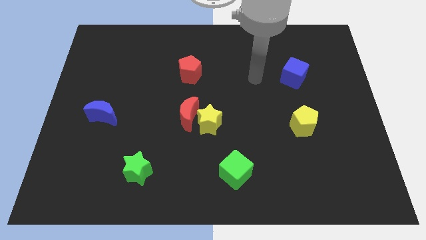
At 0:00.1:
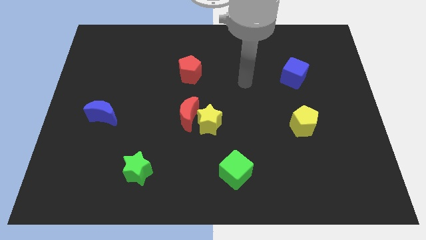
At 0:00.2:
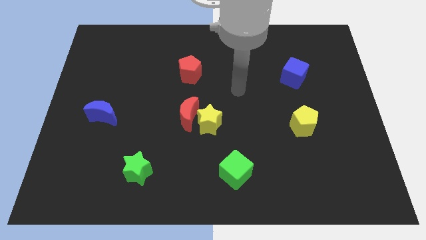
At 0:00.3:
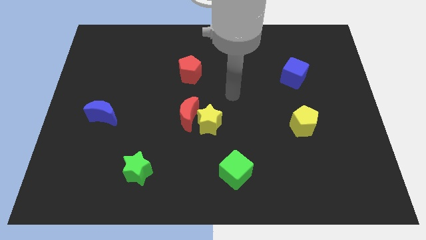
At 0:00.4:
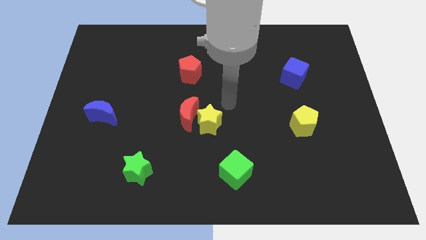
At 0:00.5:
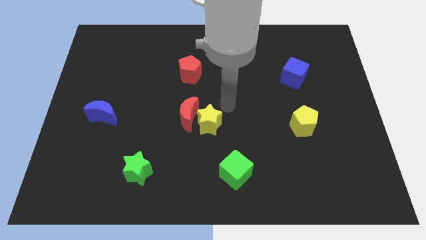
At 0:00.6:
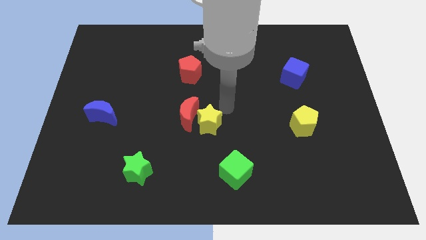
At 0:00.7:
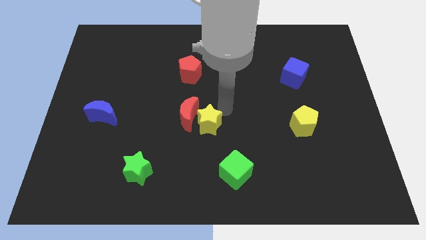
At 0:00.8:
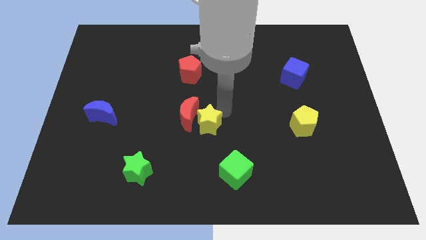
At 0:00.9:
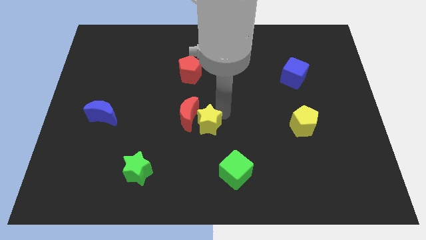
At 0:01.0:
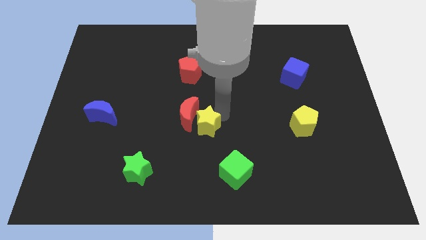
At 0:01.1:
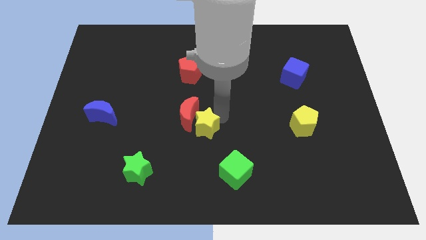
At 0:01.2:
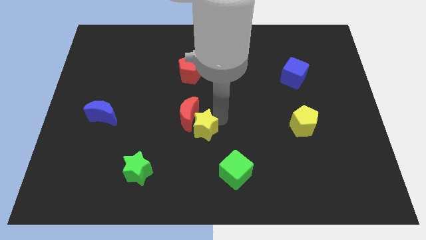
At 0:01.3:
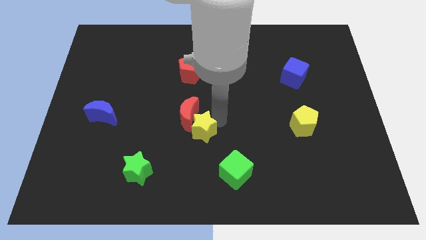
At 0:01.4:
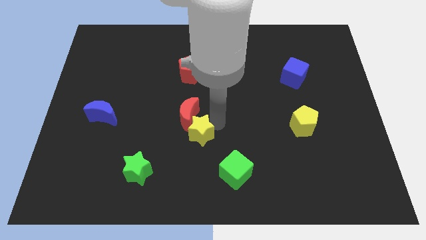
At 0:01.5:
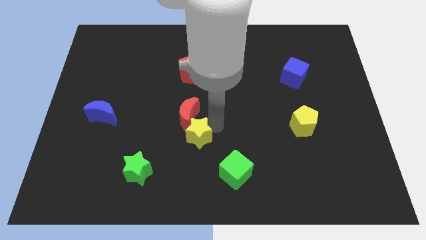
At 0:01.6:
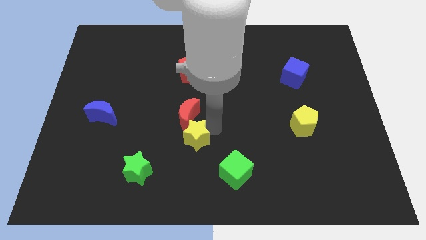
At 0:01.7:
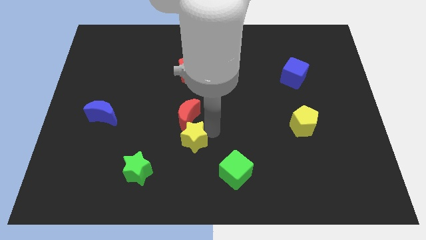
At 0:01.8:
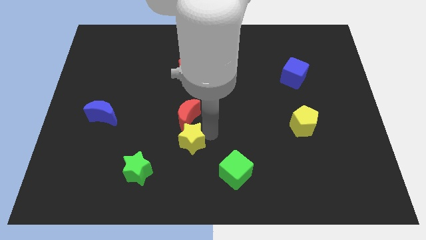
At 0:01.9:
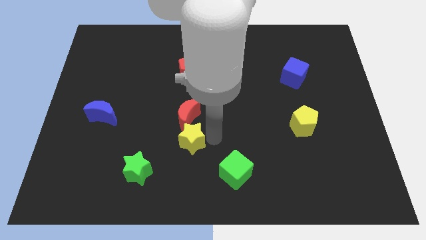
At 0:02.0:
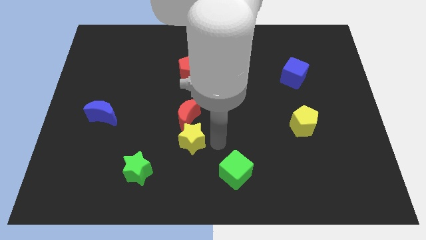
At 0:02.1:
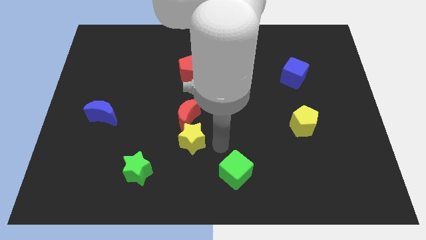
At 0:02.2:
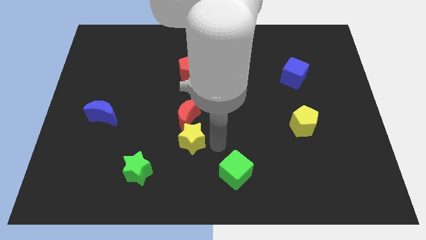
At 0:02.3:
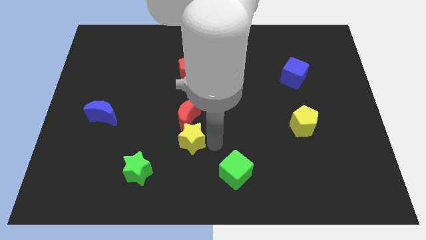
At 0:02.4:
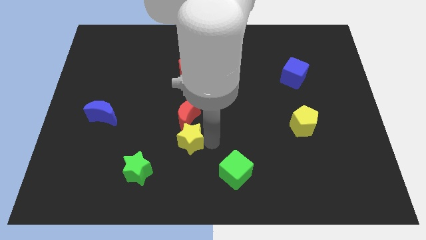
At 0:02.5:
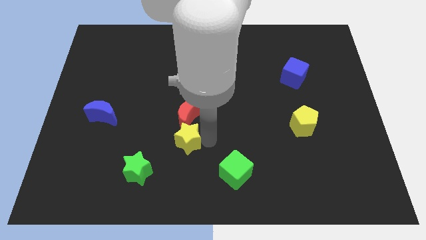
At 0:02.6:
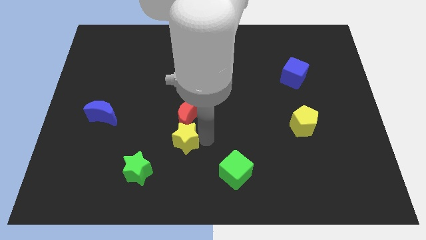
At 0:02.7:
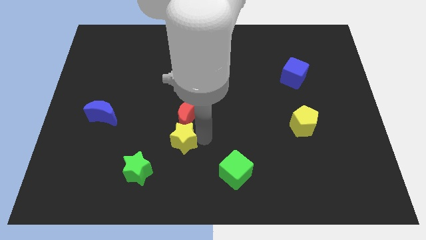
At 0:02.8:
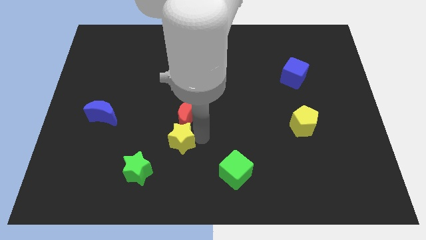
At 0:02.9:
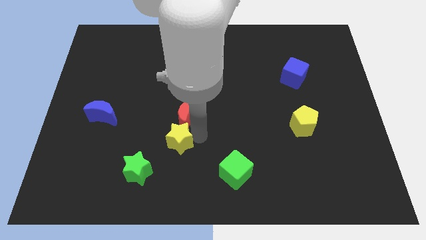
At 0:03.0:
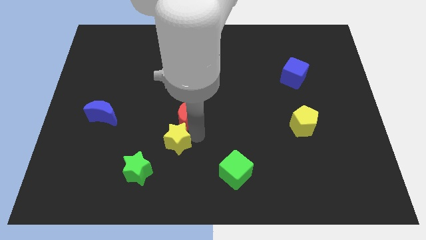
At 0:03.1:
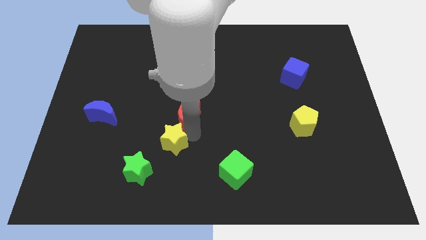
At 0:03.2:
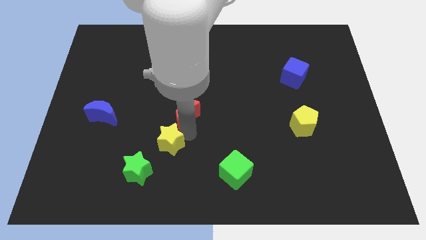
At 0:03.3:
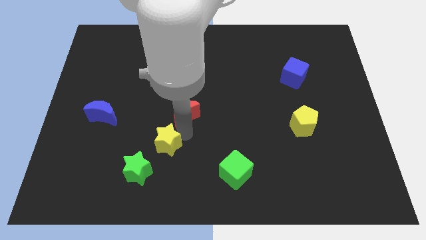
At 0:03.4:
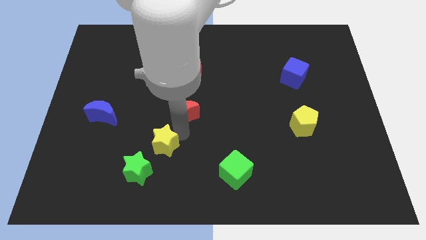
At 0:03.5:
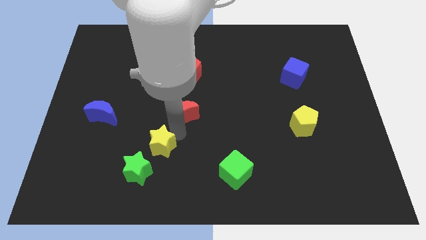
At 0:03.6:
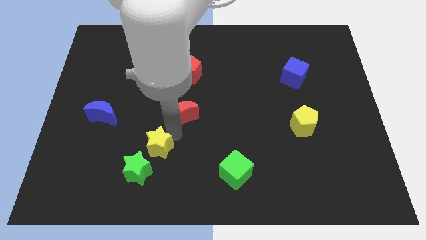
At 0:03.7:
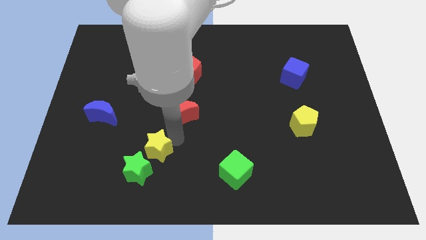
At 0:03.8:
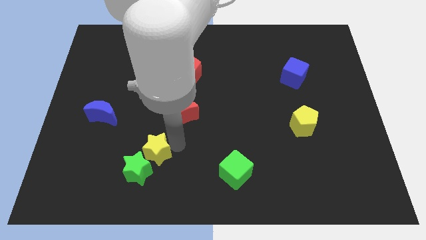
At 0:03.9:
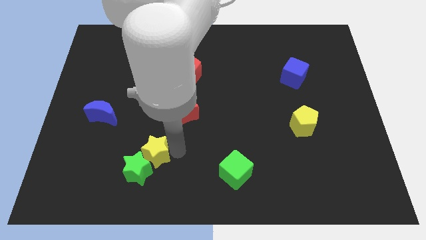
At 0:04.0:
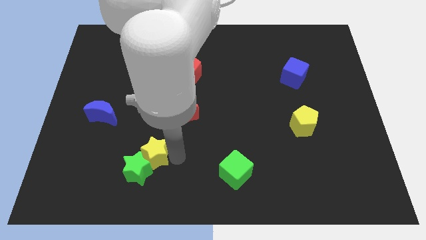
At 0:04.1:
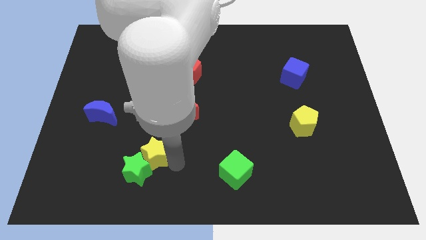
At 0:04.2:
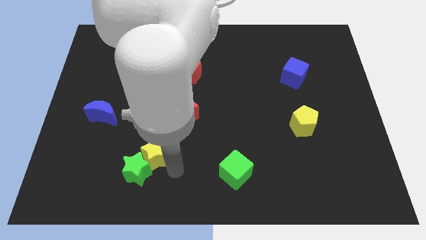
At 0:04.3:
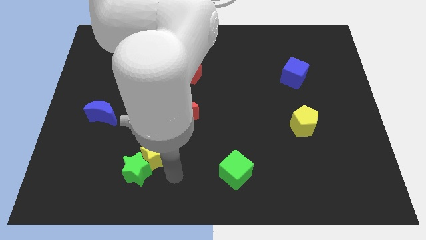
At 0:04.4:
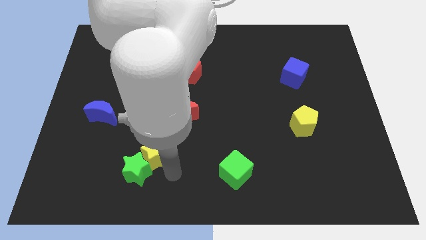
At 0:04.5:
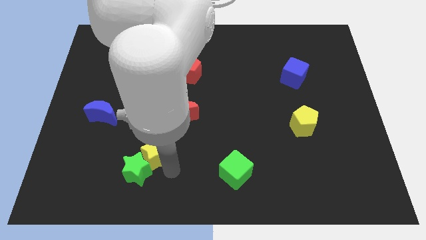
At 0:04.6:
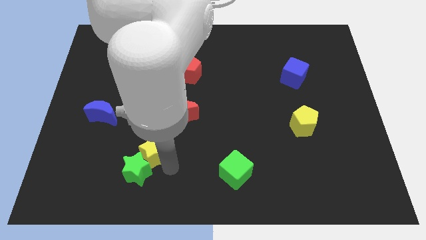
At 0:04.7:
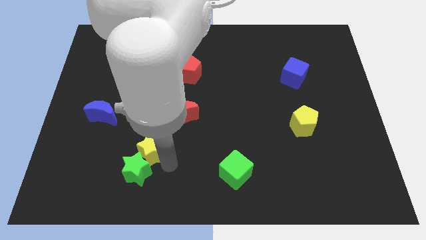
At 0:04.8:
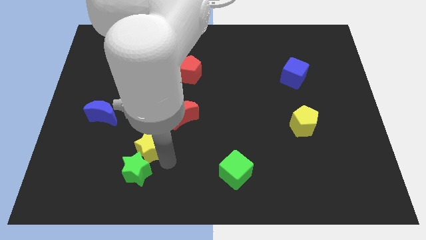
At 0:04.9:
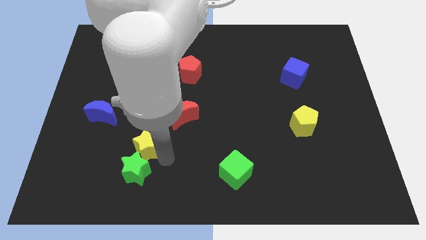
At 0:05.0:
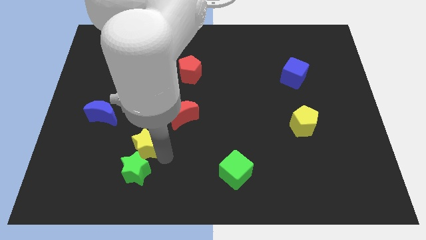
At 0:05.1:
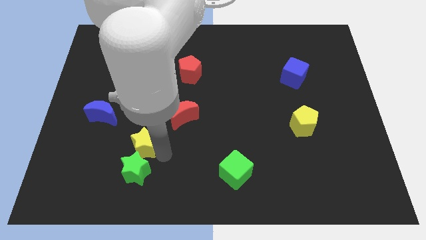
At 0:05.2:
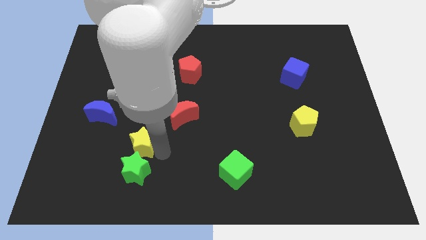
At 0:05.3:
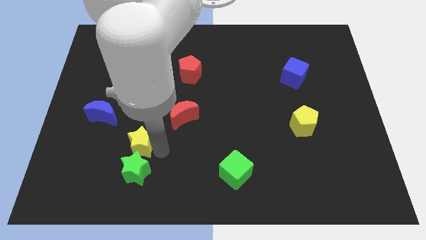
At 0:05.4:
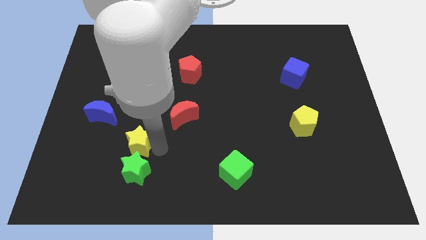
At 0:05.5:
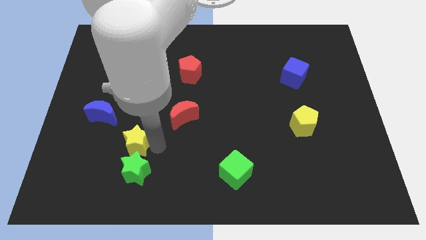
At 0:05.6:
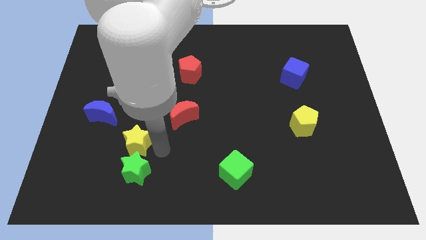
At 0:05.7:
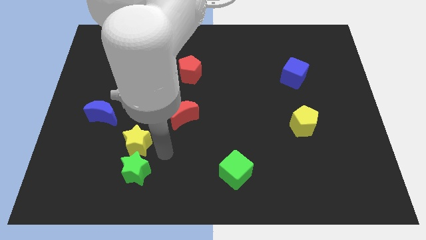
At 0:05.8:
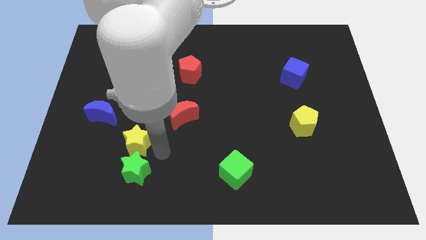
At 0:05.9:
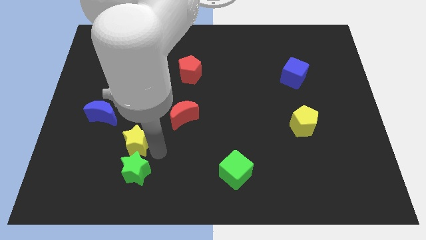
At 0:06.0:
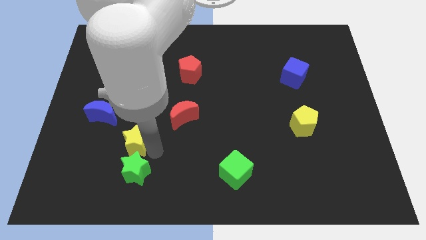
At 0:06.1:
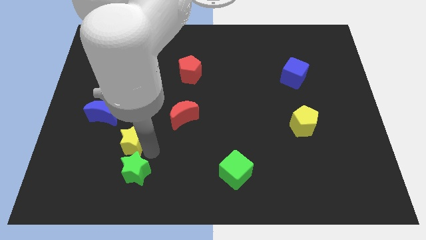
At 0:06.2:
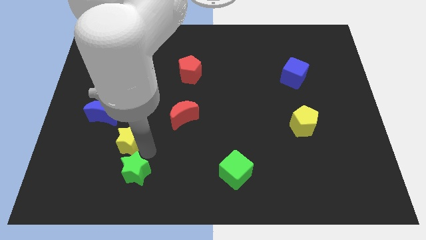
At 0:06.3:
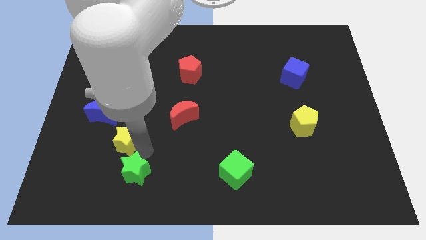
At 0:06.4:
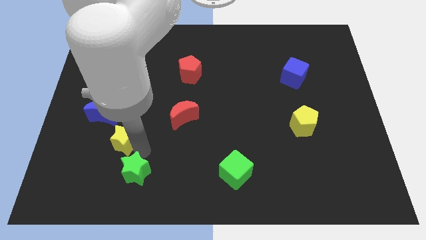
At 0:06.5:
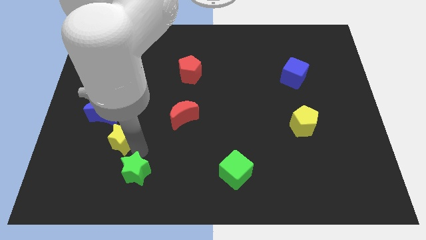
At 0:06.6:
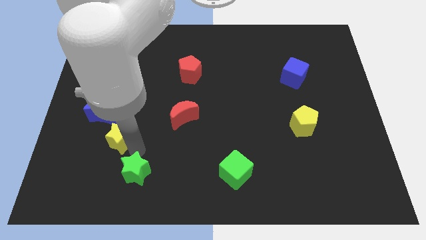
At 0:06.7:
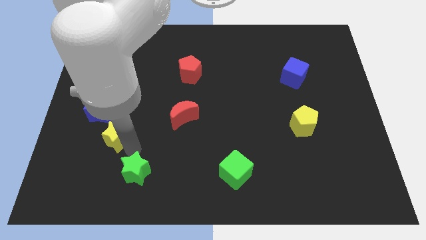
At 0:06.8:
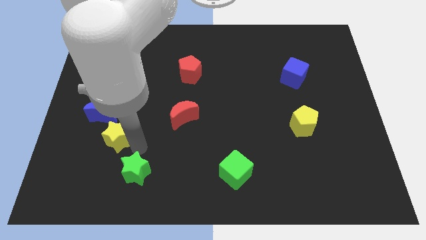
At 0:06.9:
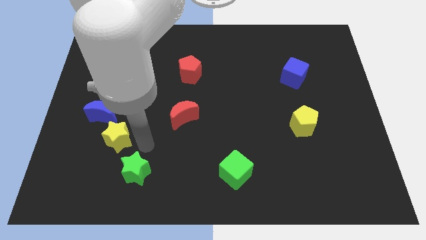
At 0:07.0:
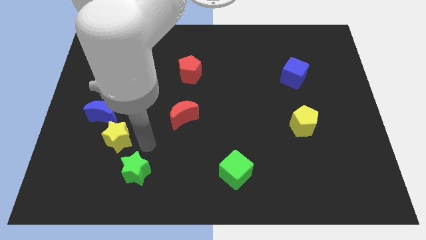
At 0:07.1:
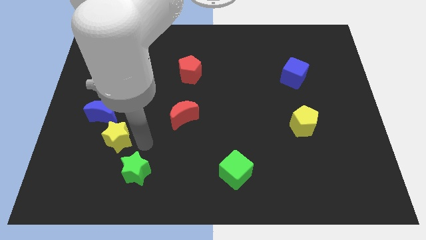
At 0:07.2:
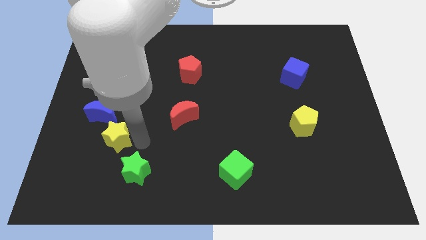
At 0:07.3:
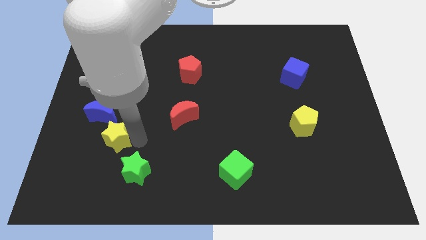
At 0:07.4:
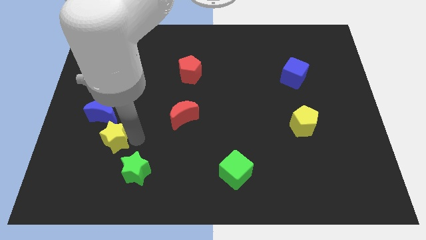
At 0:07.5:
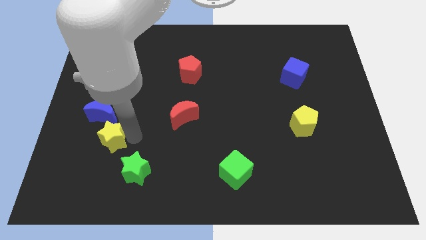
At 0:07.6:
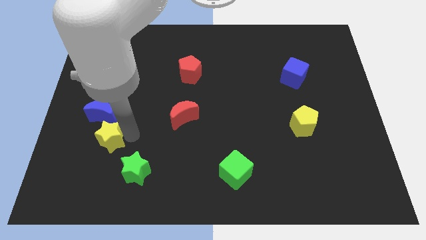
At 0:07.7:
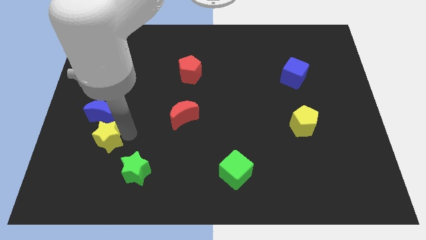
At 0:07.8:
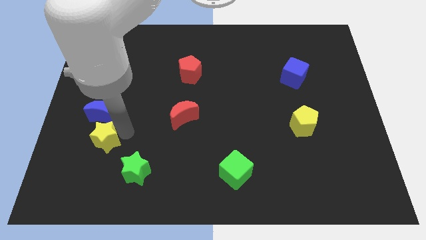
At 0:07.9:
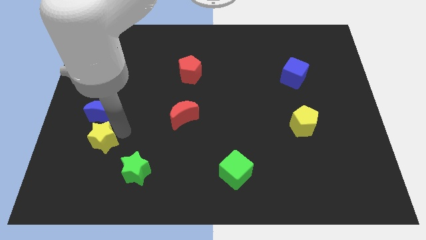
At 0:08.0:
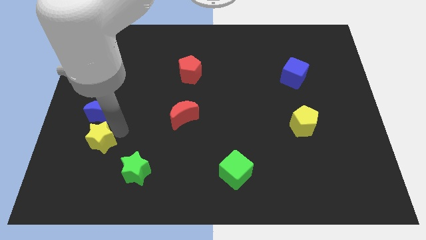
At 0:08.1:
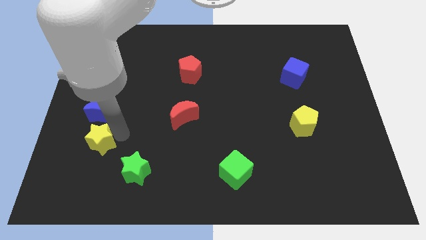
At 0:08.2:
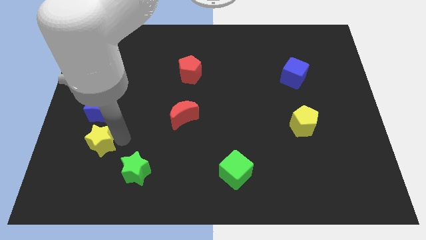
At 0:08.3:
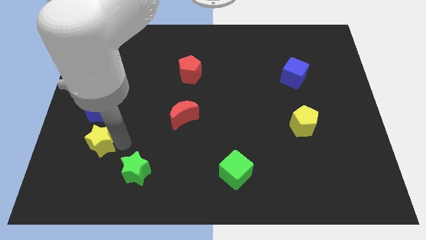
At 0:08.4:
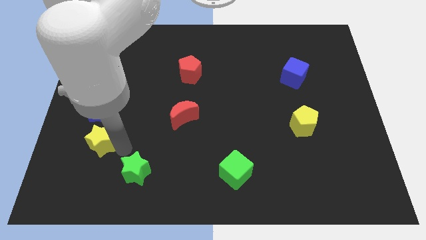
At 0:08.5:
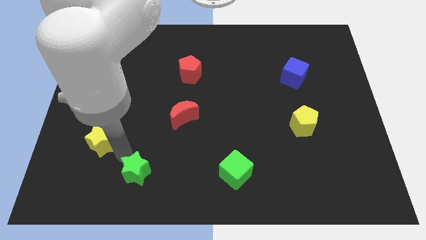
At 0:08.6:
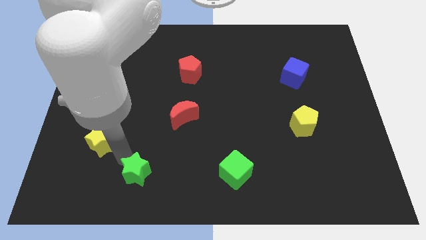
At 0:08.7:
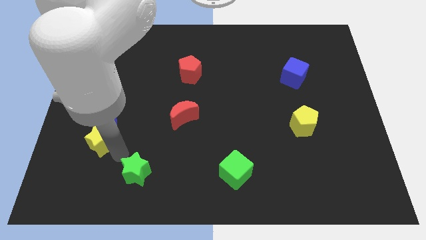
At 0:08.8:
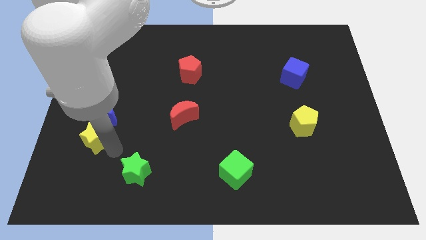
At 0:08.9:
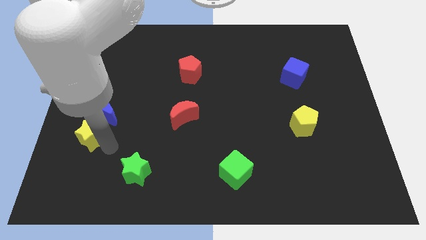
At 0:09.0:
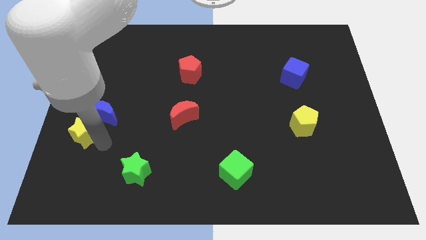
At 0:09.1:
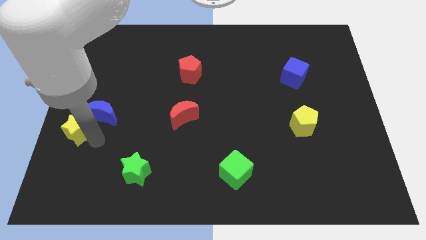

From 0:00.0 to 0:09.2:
slide the yellow star to the center left
